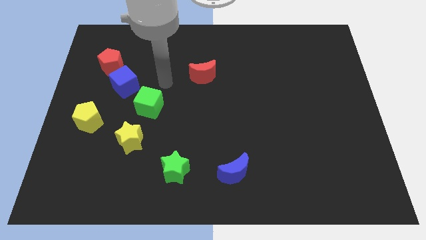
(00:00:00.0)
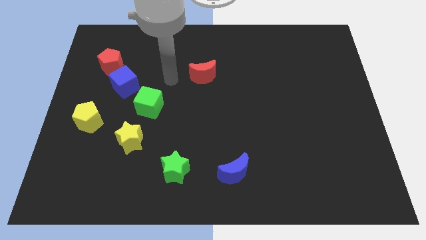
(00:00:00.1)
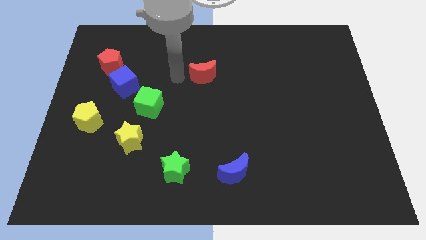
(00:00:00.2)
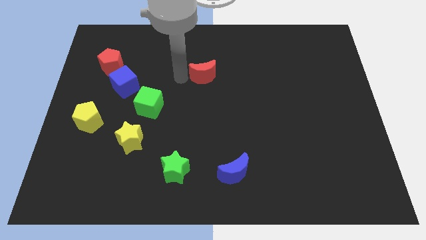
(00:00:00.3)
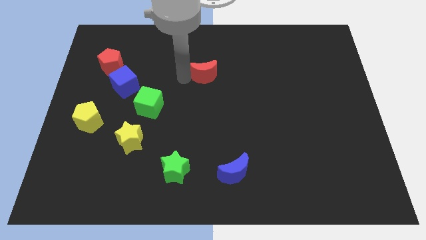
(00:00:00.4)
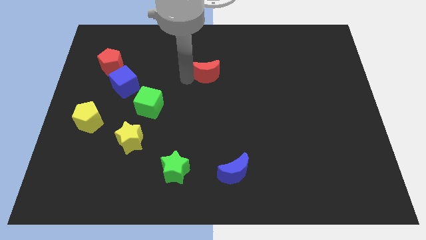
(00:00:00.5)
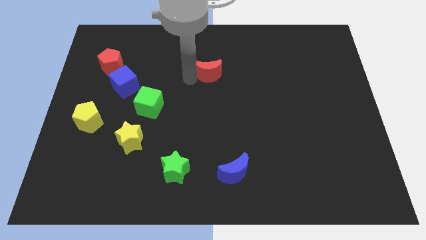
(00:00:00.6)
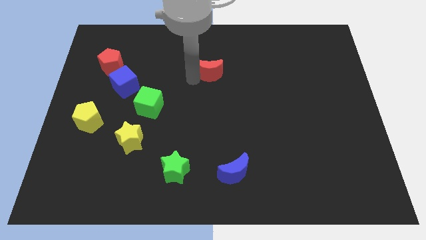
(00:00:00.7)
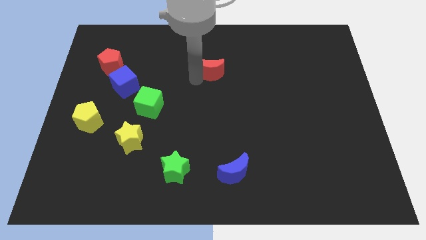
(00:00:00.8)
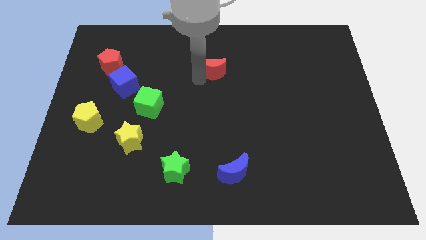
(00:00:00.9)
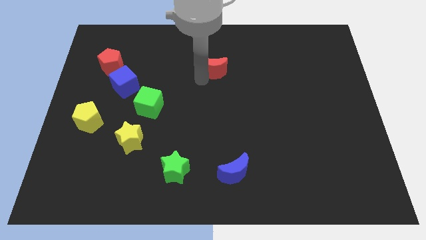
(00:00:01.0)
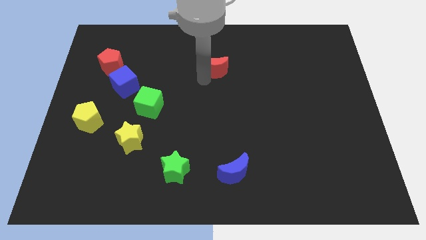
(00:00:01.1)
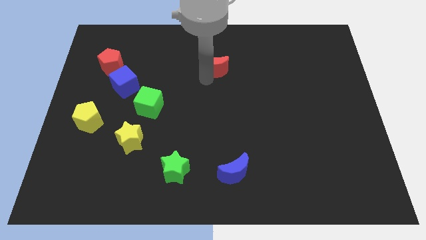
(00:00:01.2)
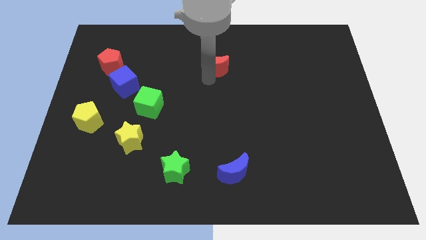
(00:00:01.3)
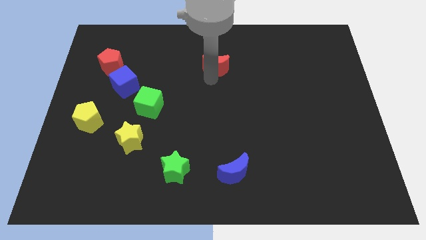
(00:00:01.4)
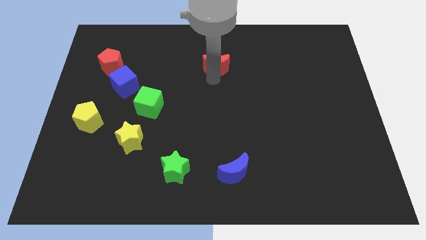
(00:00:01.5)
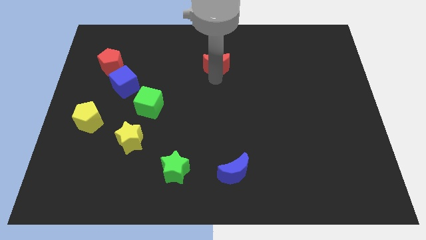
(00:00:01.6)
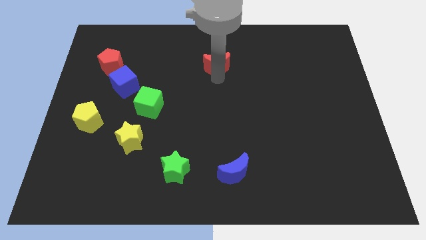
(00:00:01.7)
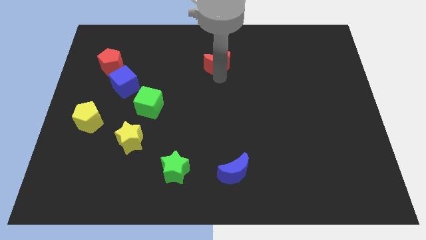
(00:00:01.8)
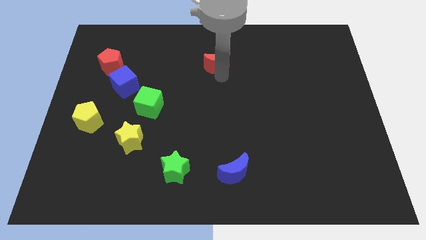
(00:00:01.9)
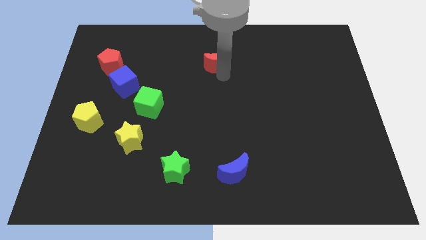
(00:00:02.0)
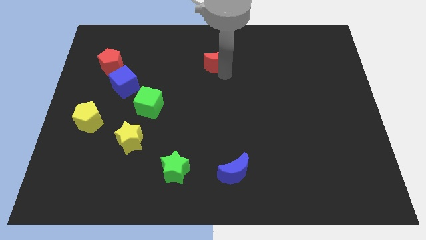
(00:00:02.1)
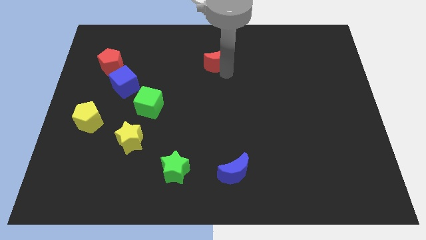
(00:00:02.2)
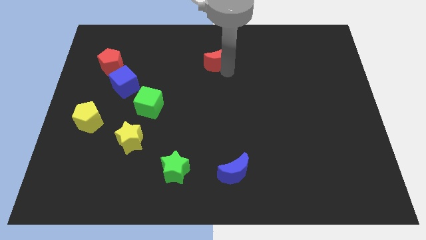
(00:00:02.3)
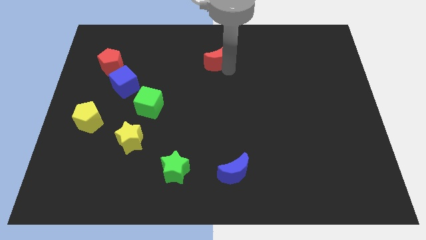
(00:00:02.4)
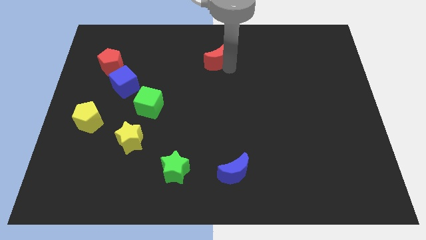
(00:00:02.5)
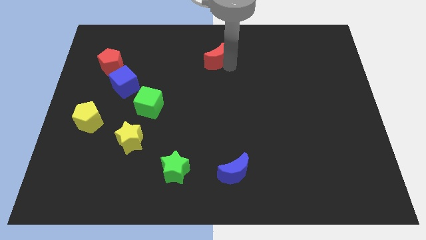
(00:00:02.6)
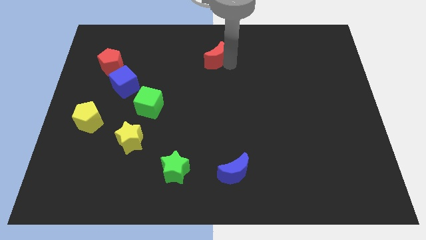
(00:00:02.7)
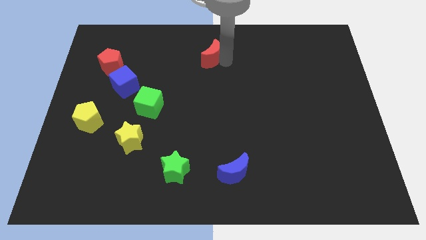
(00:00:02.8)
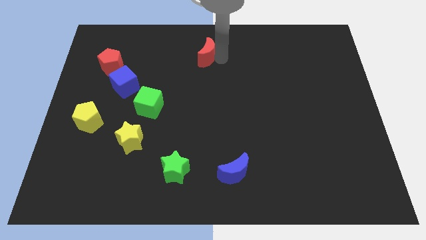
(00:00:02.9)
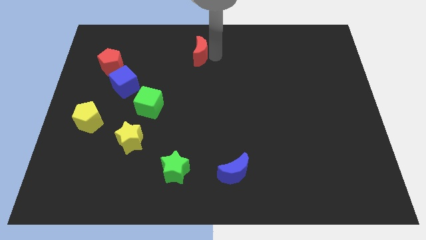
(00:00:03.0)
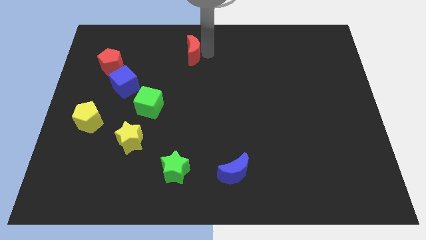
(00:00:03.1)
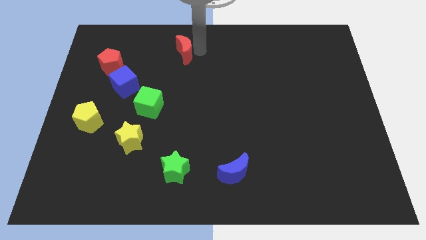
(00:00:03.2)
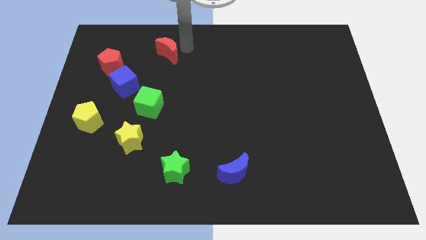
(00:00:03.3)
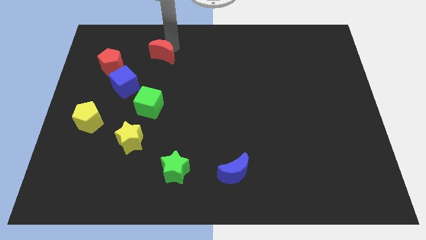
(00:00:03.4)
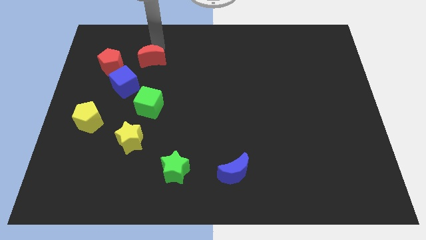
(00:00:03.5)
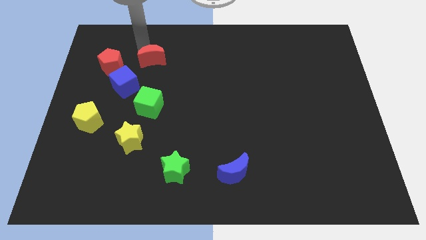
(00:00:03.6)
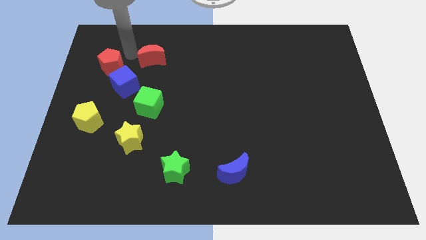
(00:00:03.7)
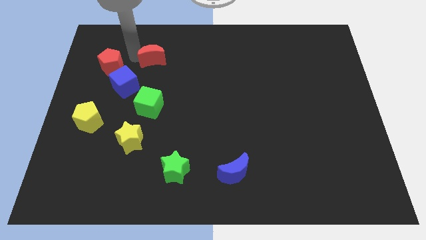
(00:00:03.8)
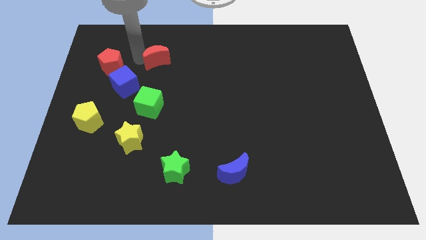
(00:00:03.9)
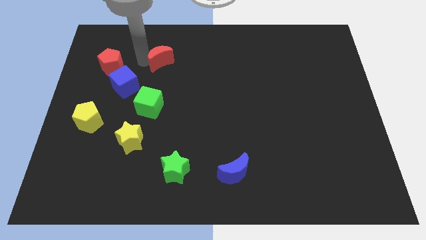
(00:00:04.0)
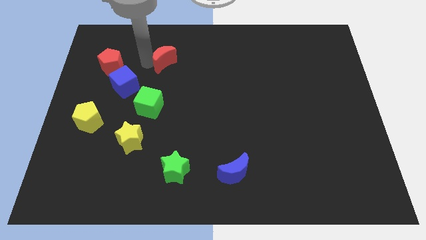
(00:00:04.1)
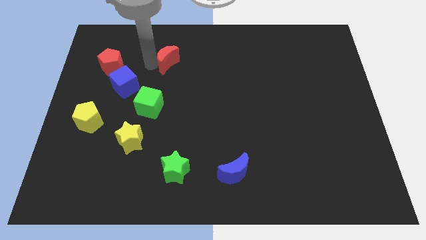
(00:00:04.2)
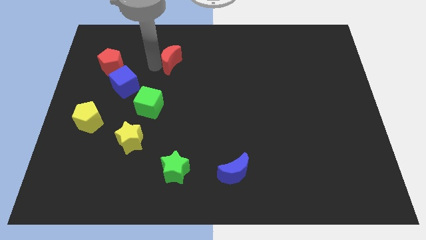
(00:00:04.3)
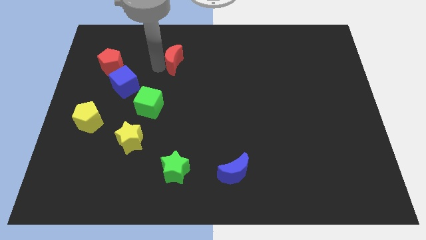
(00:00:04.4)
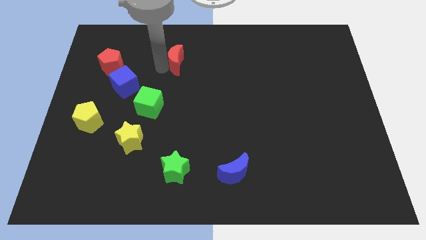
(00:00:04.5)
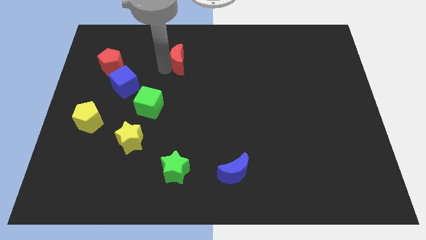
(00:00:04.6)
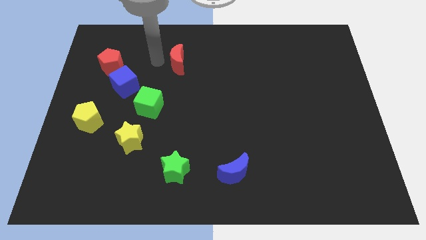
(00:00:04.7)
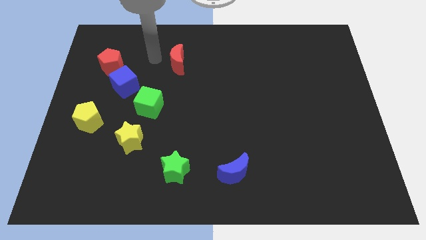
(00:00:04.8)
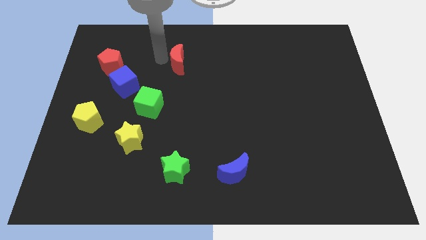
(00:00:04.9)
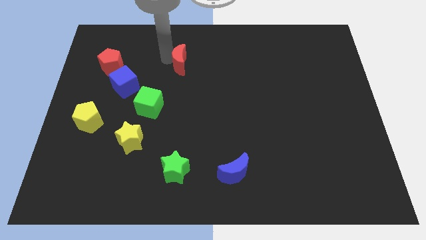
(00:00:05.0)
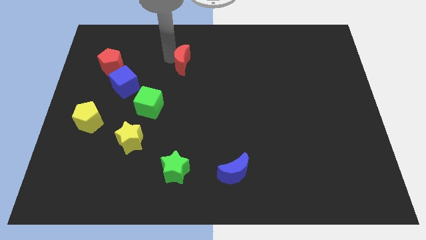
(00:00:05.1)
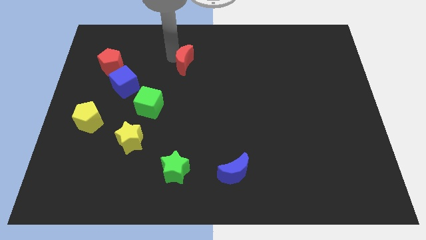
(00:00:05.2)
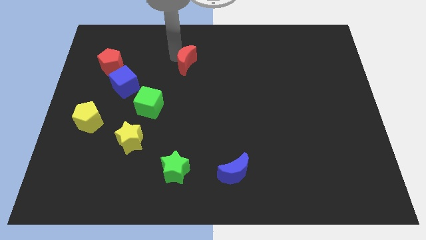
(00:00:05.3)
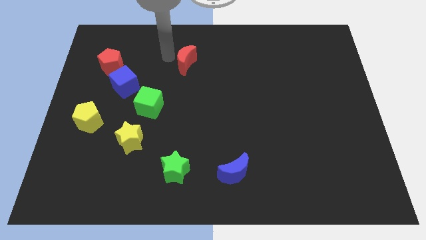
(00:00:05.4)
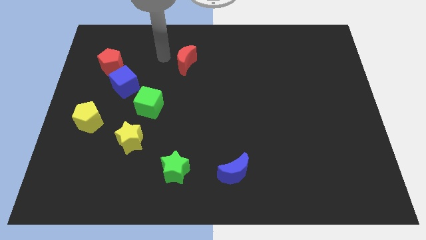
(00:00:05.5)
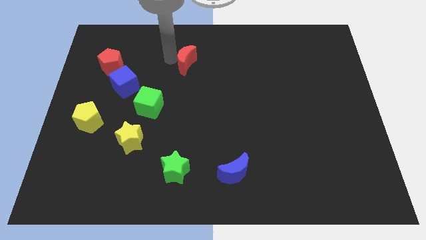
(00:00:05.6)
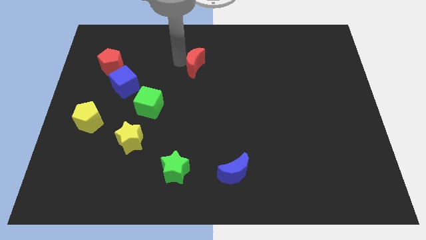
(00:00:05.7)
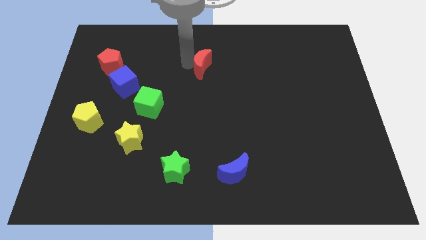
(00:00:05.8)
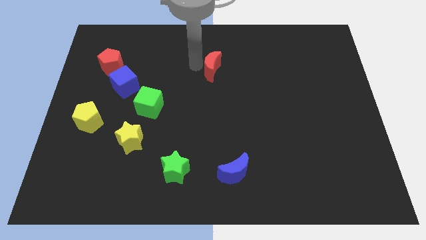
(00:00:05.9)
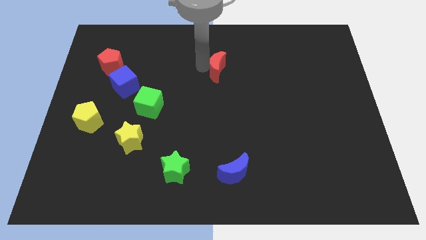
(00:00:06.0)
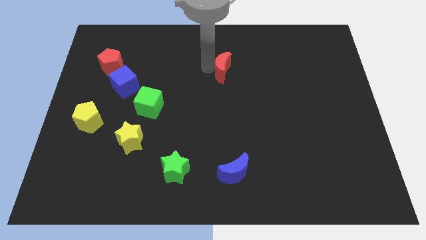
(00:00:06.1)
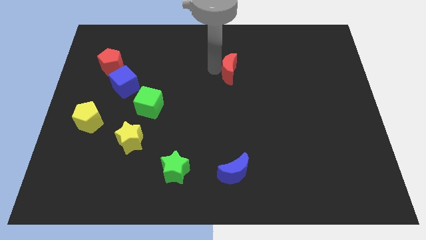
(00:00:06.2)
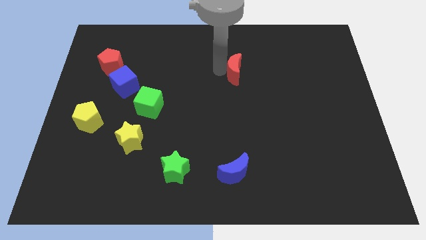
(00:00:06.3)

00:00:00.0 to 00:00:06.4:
slightly push the red moon right

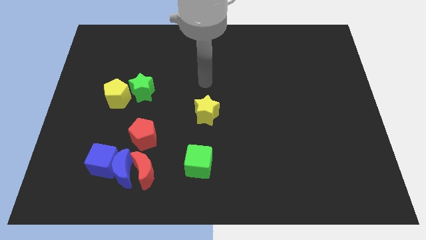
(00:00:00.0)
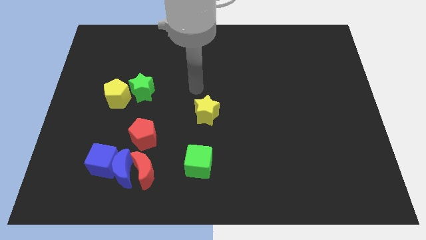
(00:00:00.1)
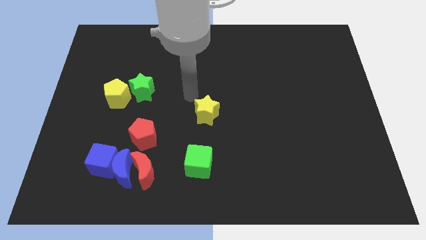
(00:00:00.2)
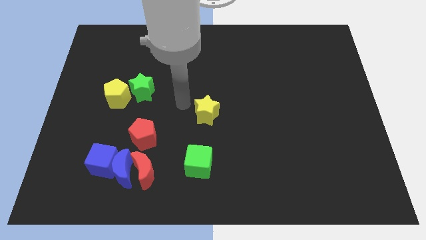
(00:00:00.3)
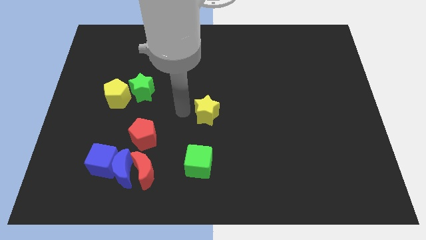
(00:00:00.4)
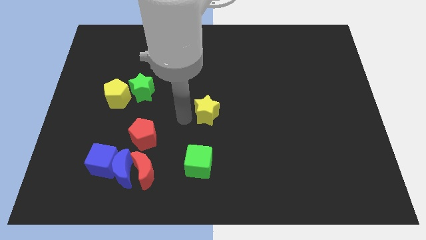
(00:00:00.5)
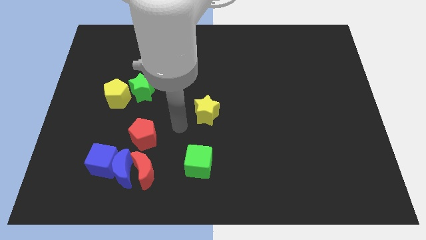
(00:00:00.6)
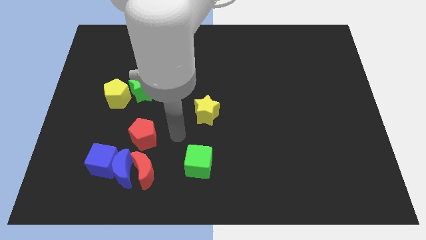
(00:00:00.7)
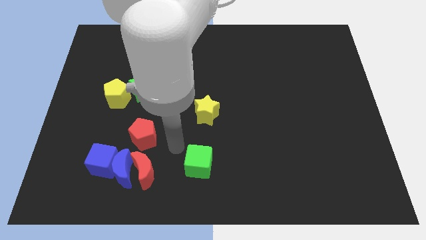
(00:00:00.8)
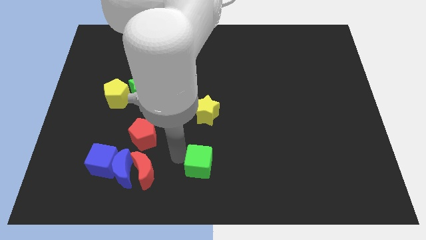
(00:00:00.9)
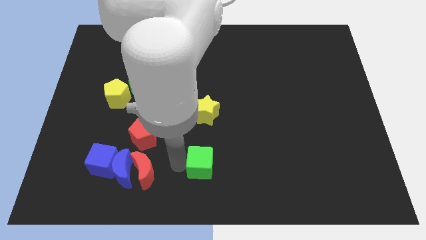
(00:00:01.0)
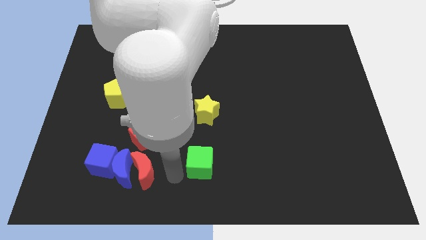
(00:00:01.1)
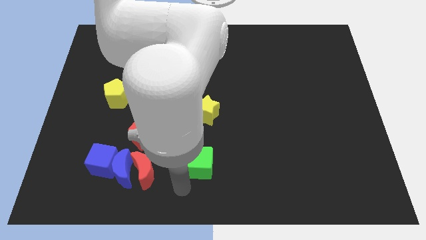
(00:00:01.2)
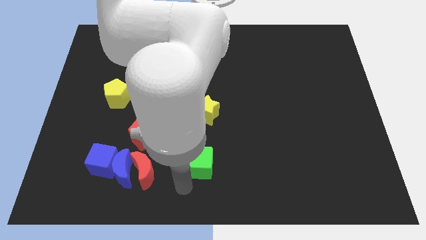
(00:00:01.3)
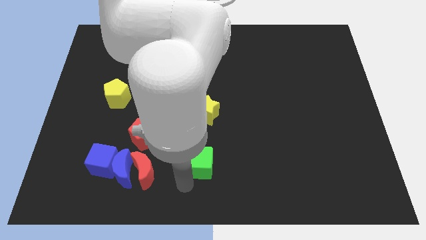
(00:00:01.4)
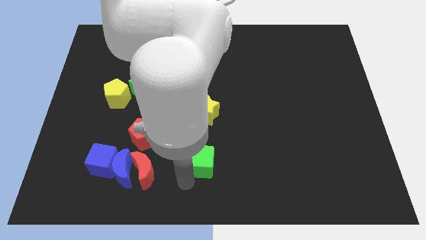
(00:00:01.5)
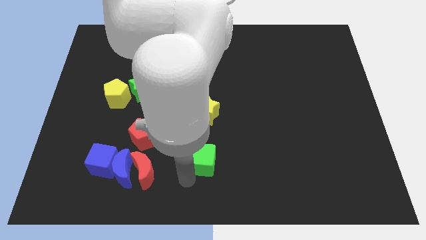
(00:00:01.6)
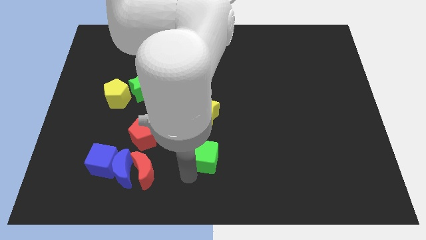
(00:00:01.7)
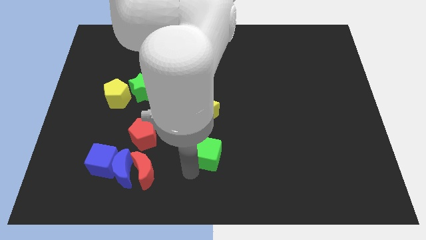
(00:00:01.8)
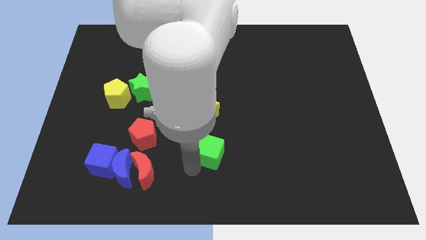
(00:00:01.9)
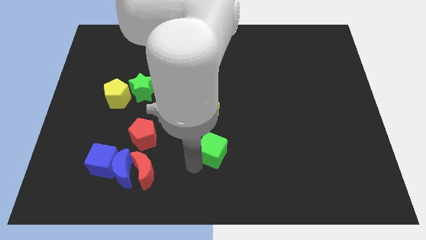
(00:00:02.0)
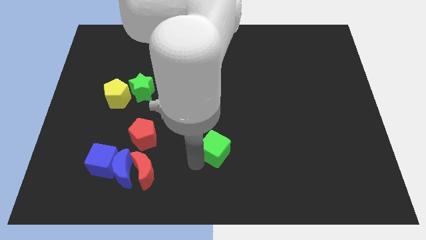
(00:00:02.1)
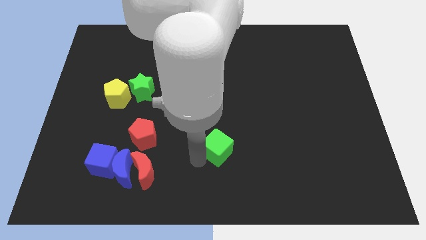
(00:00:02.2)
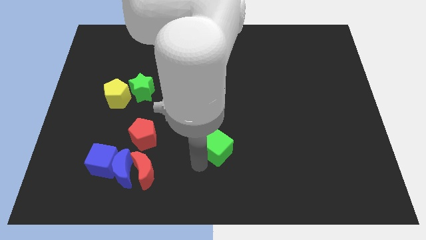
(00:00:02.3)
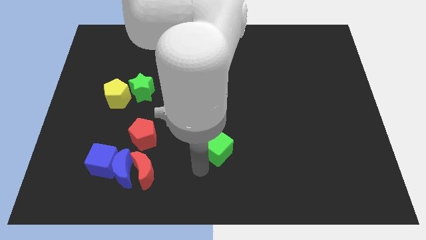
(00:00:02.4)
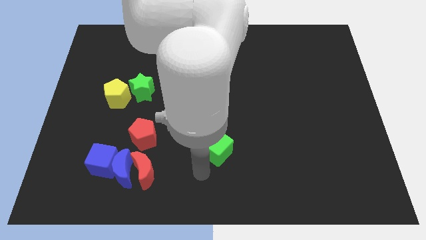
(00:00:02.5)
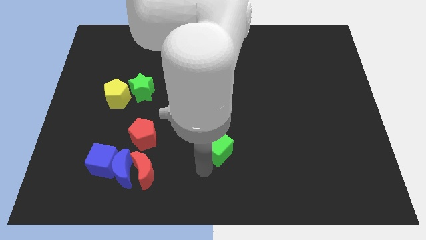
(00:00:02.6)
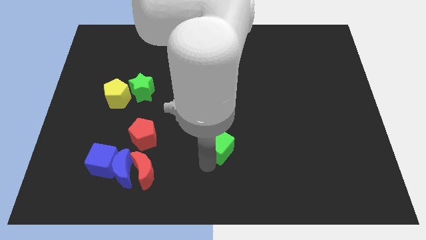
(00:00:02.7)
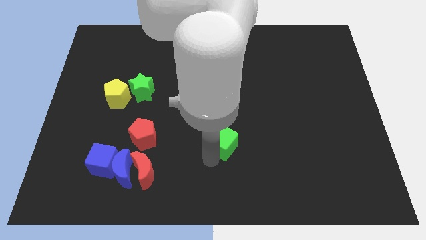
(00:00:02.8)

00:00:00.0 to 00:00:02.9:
move the green cube a bit up and to the right diagonally
